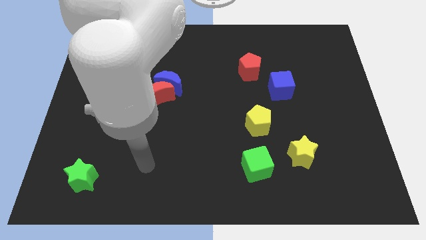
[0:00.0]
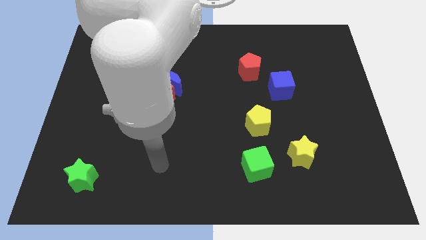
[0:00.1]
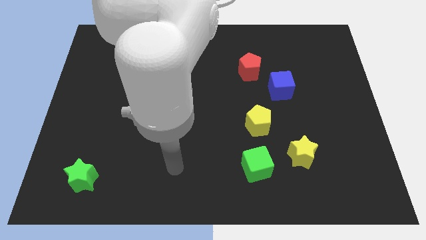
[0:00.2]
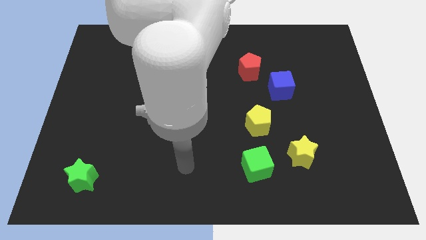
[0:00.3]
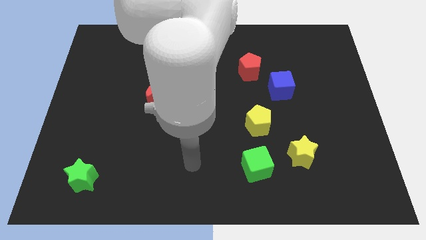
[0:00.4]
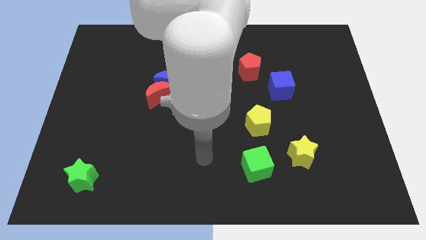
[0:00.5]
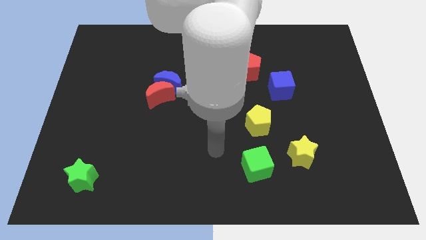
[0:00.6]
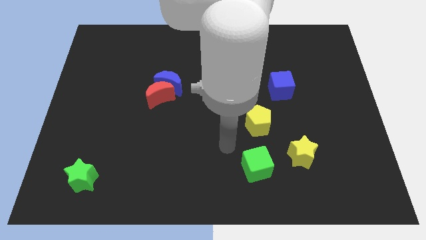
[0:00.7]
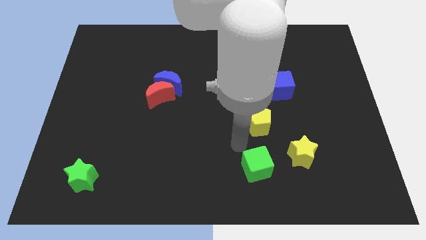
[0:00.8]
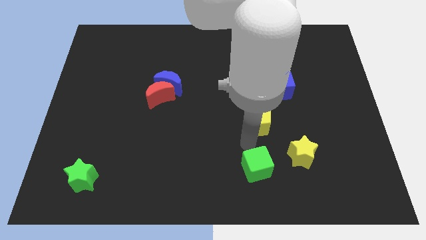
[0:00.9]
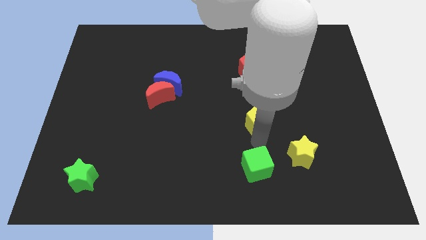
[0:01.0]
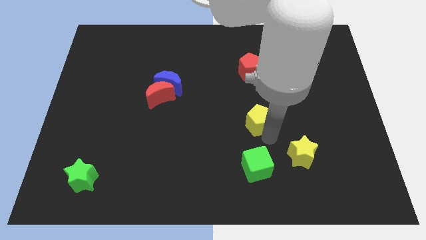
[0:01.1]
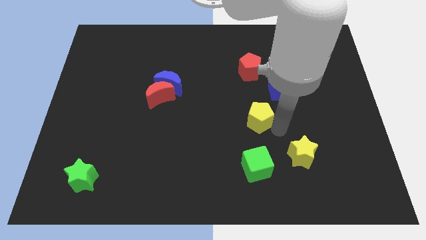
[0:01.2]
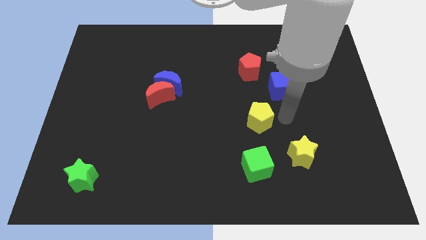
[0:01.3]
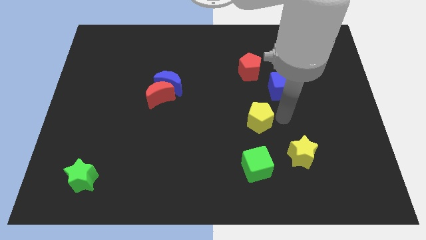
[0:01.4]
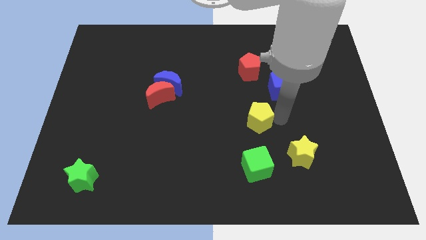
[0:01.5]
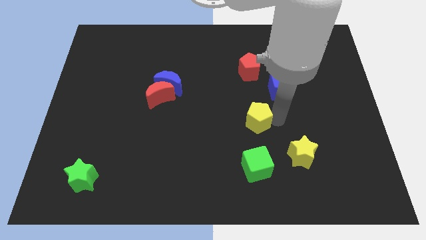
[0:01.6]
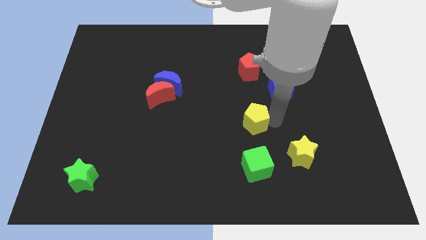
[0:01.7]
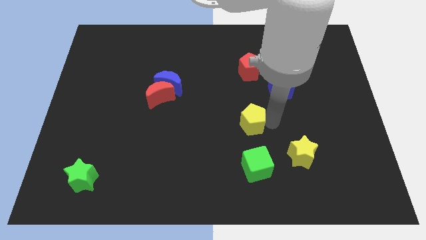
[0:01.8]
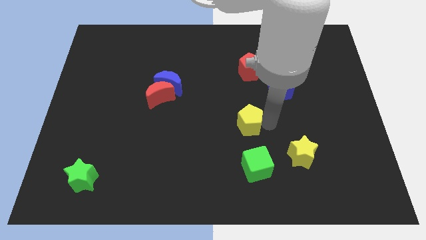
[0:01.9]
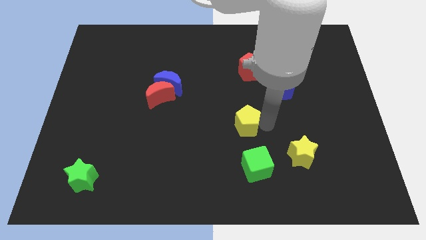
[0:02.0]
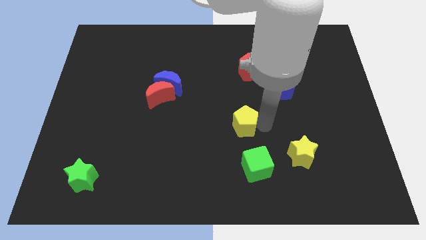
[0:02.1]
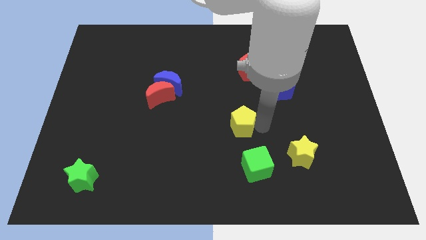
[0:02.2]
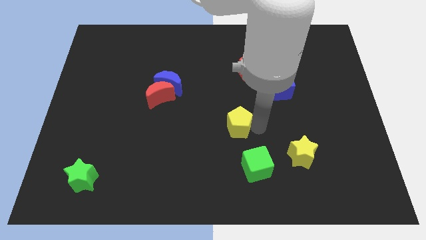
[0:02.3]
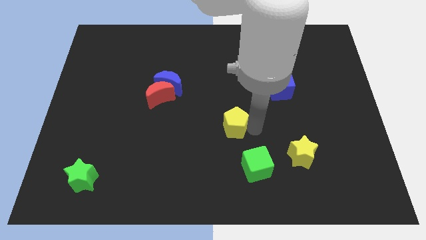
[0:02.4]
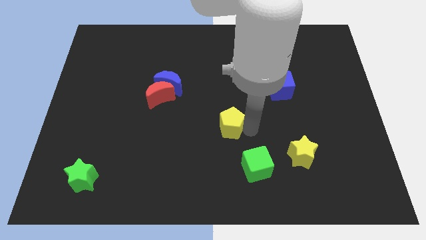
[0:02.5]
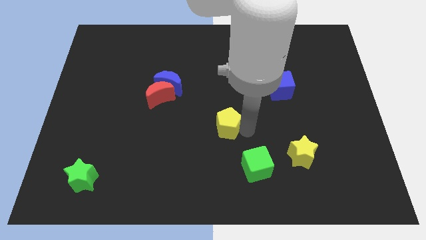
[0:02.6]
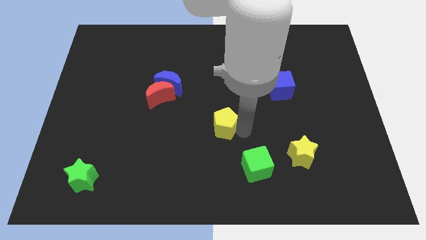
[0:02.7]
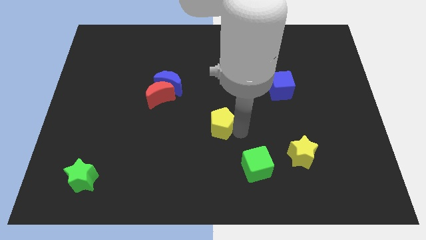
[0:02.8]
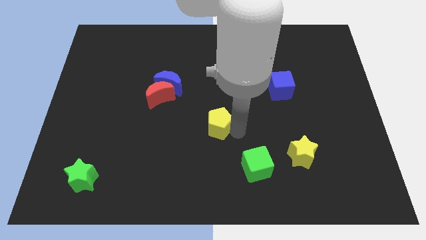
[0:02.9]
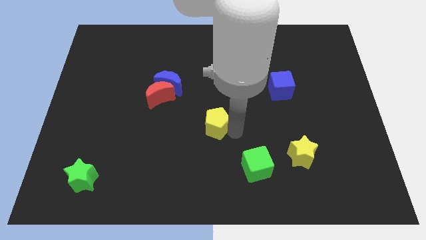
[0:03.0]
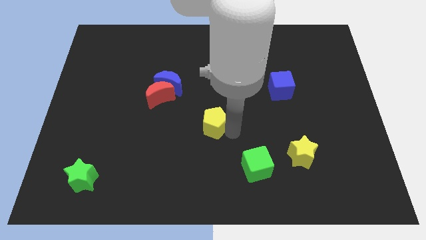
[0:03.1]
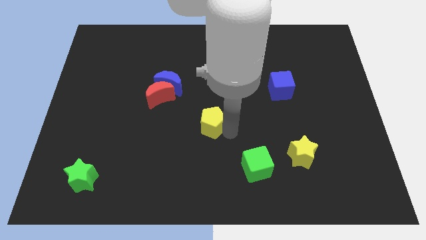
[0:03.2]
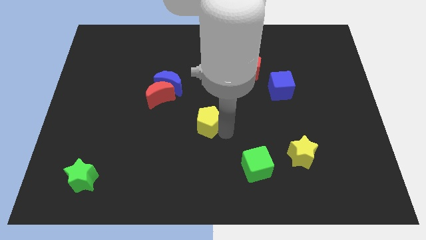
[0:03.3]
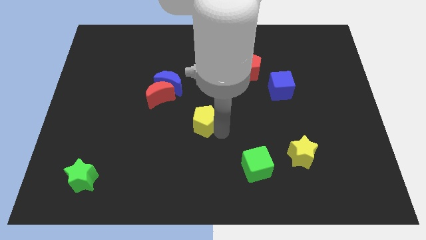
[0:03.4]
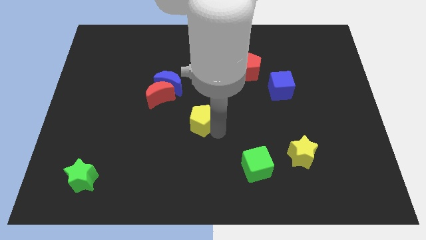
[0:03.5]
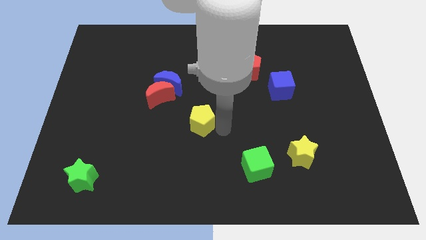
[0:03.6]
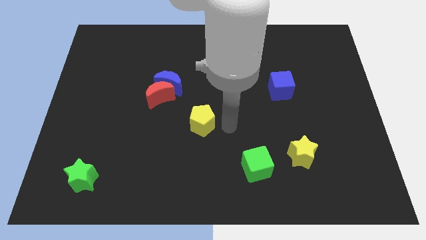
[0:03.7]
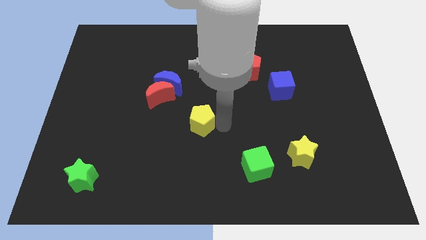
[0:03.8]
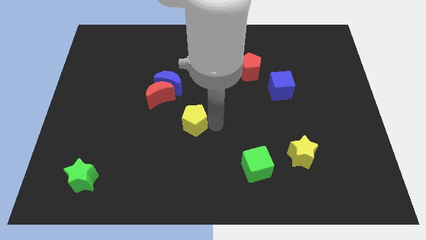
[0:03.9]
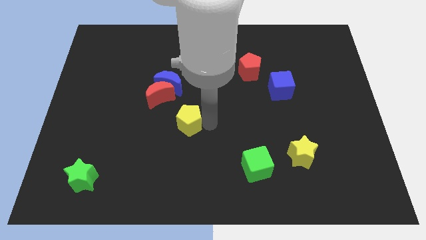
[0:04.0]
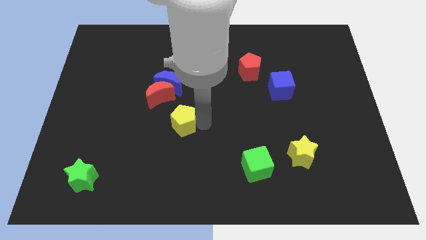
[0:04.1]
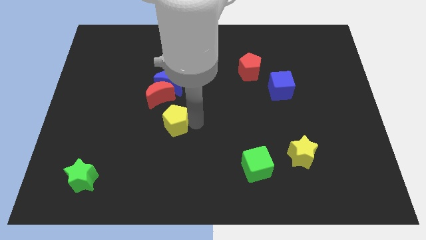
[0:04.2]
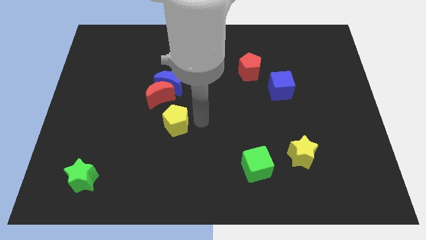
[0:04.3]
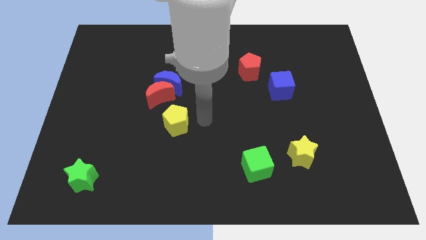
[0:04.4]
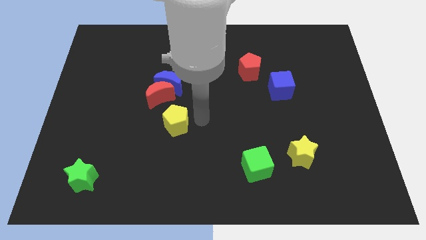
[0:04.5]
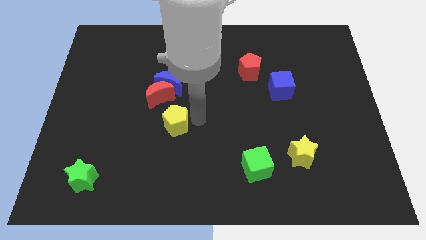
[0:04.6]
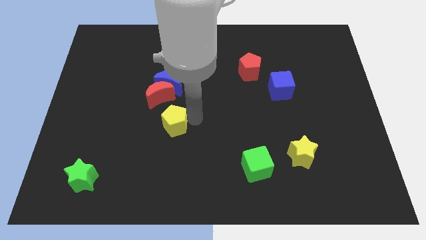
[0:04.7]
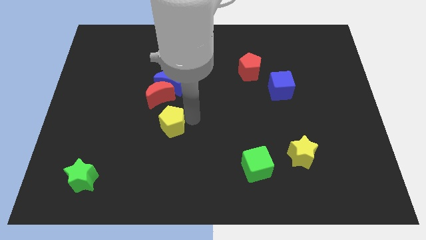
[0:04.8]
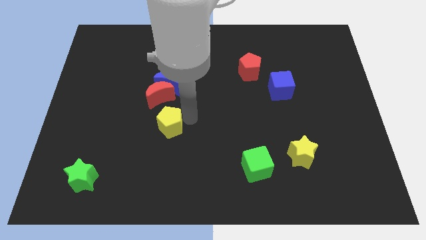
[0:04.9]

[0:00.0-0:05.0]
push the yellow pentagon to the left

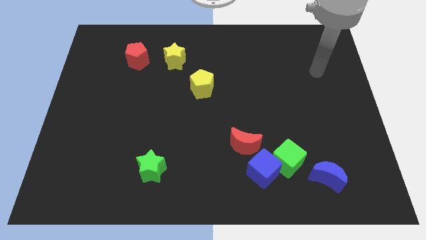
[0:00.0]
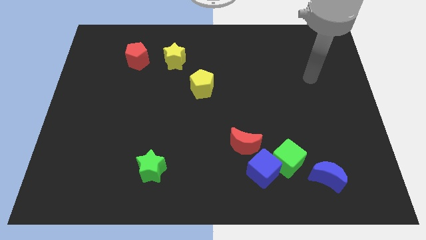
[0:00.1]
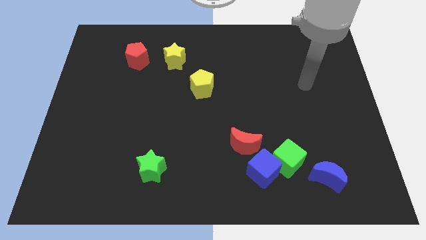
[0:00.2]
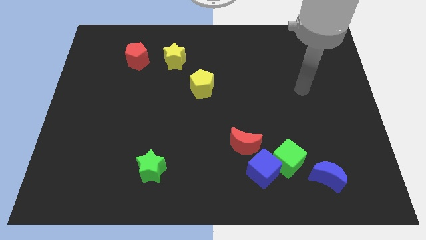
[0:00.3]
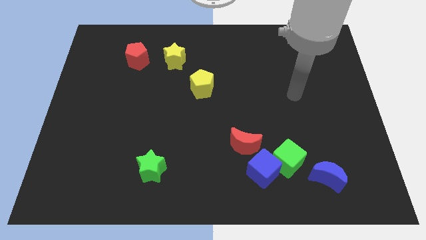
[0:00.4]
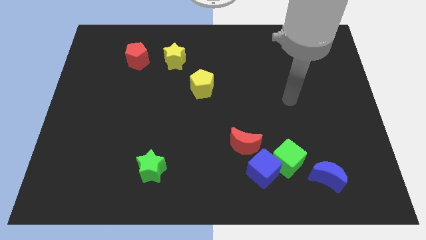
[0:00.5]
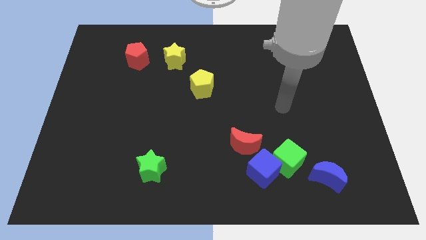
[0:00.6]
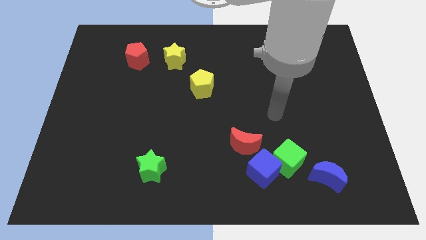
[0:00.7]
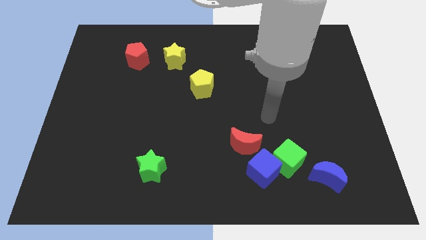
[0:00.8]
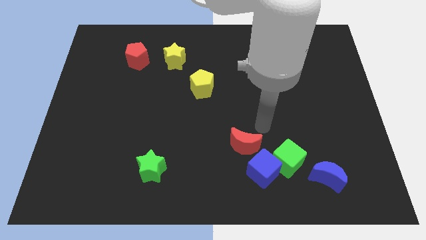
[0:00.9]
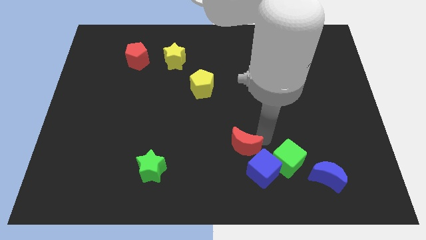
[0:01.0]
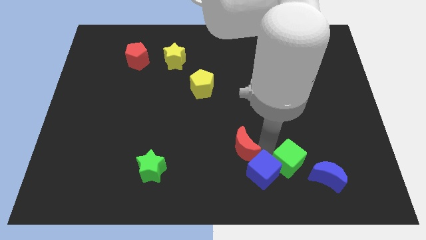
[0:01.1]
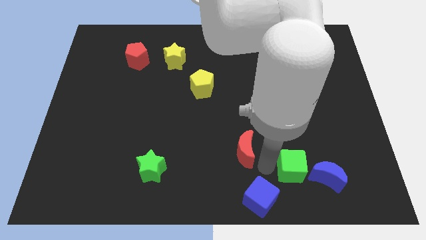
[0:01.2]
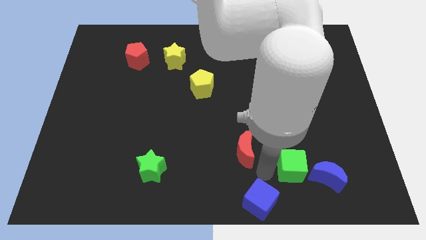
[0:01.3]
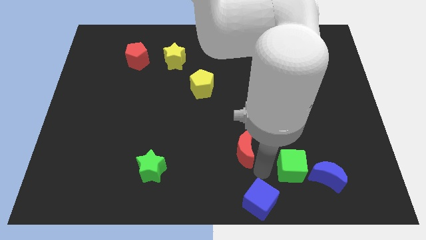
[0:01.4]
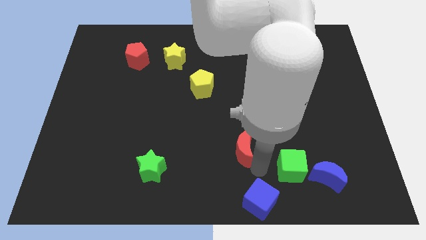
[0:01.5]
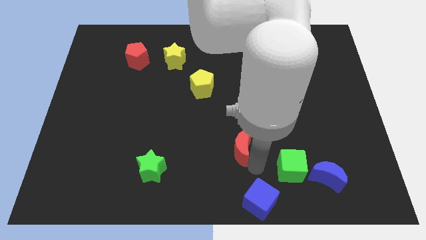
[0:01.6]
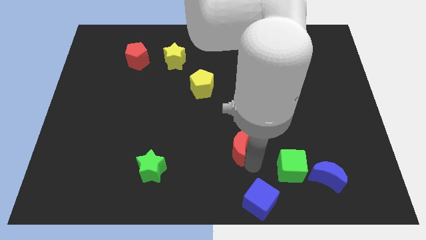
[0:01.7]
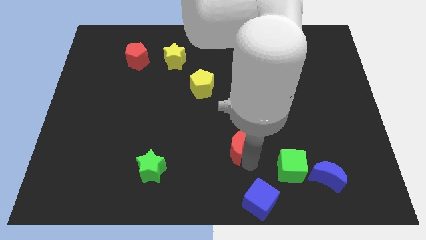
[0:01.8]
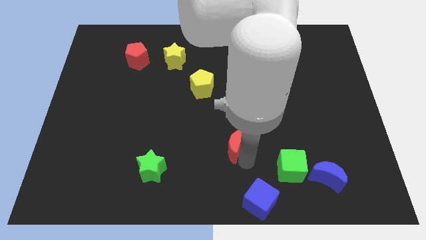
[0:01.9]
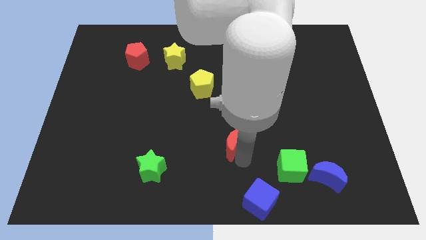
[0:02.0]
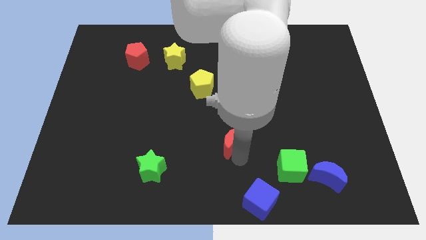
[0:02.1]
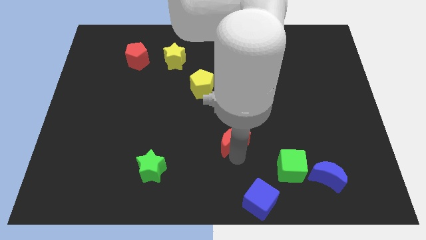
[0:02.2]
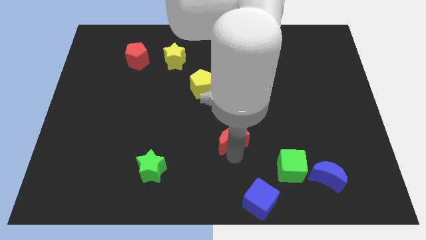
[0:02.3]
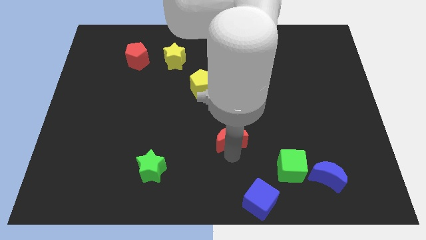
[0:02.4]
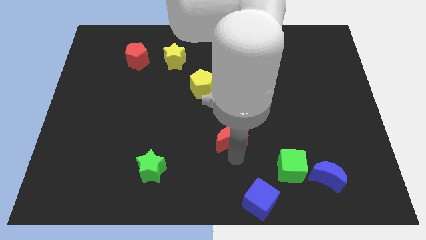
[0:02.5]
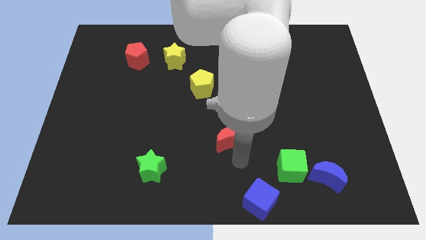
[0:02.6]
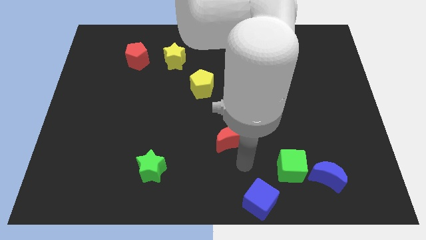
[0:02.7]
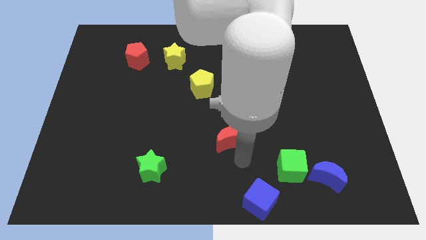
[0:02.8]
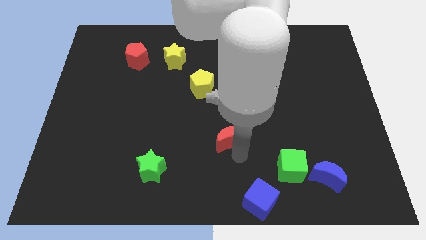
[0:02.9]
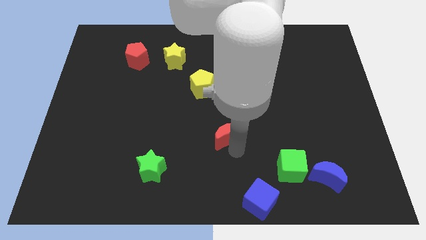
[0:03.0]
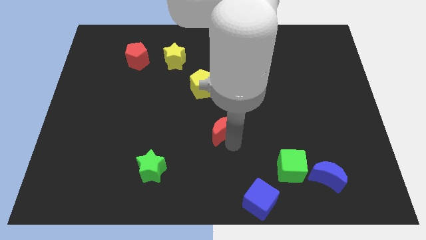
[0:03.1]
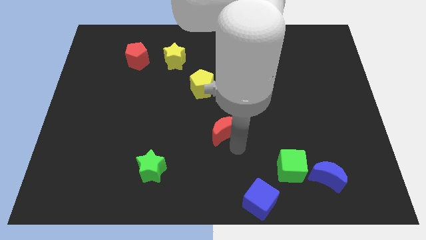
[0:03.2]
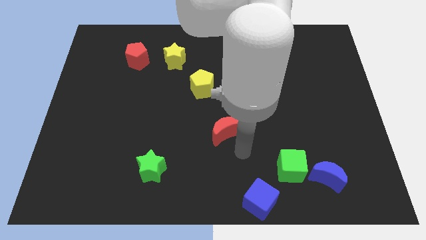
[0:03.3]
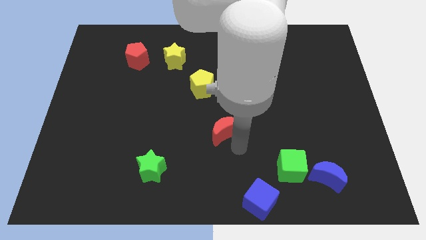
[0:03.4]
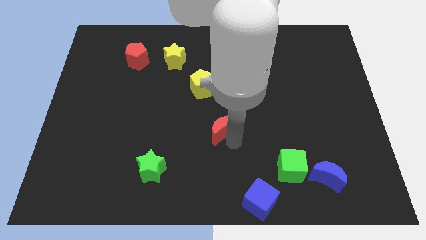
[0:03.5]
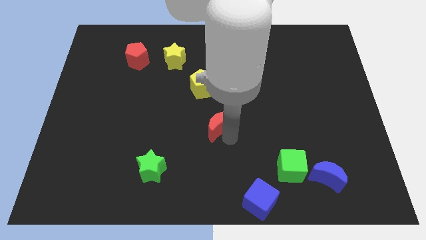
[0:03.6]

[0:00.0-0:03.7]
move the red moon a little diagonally upwards and to the left
